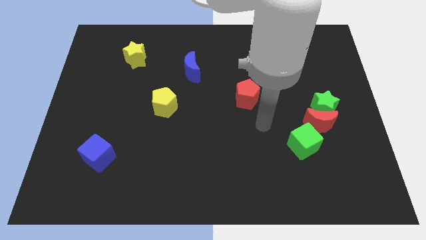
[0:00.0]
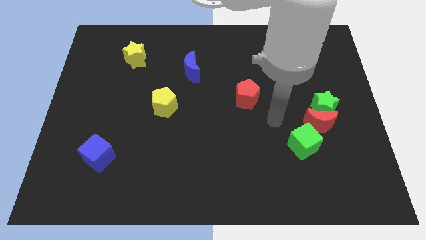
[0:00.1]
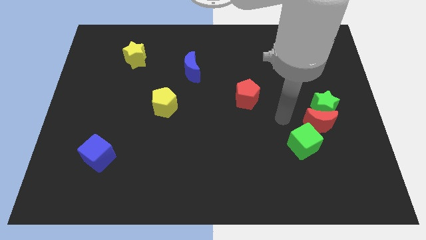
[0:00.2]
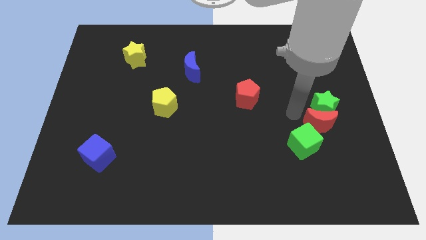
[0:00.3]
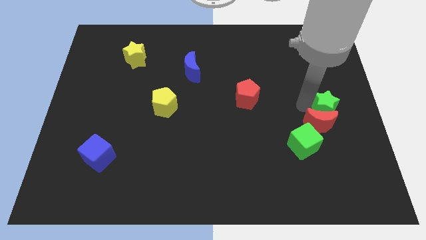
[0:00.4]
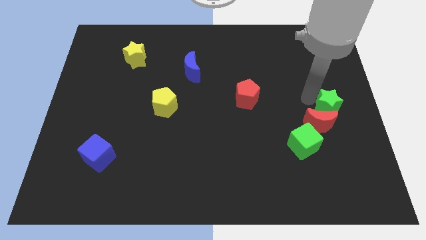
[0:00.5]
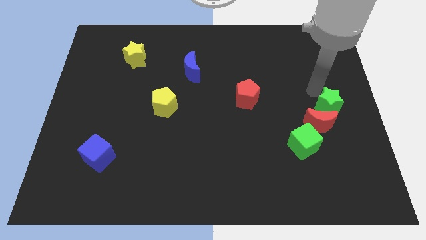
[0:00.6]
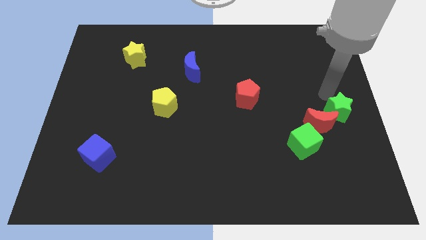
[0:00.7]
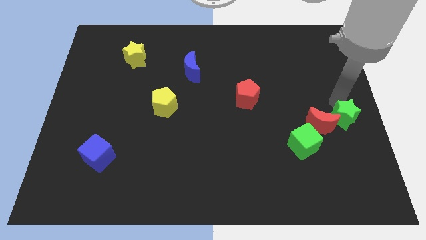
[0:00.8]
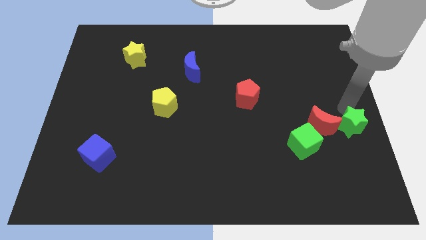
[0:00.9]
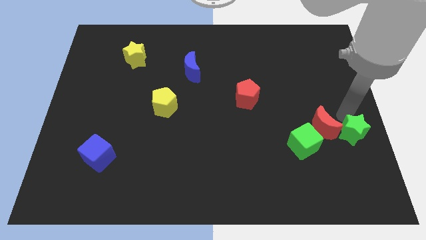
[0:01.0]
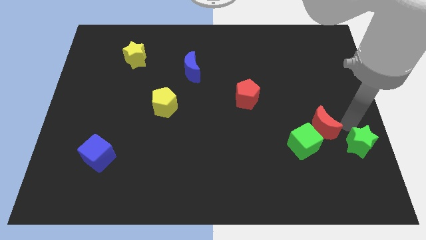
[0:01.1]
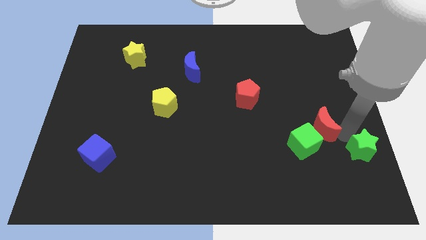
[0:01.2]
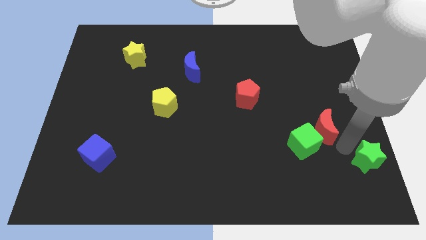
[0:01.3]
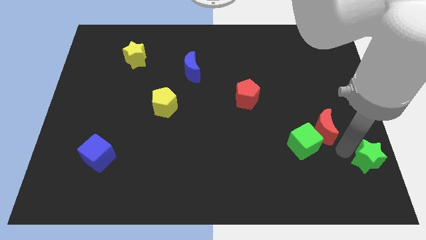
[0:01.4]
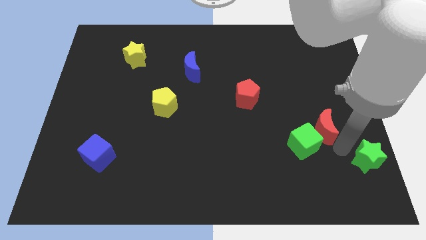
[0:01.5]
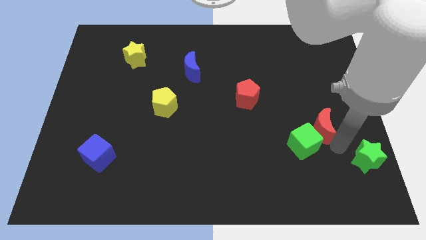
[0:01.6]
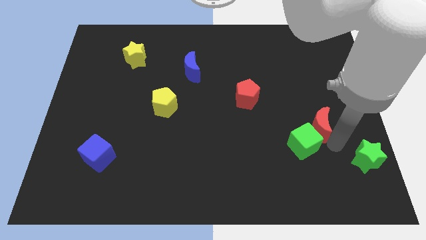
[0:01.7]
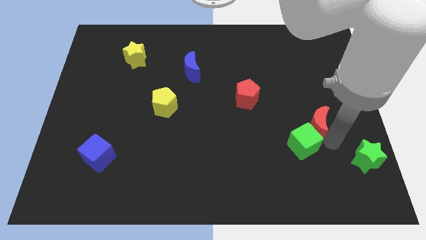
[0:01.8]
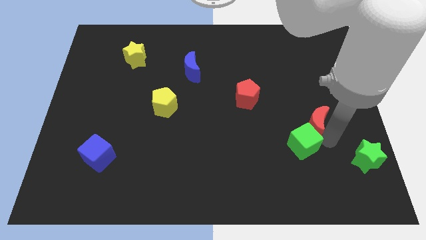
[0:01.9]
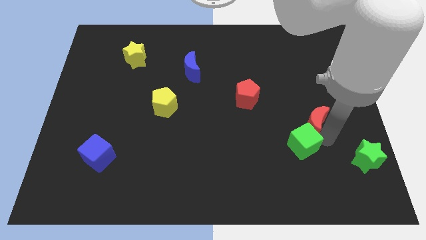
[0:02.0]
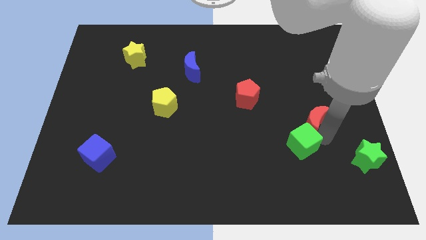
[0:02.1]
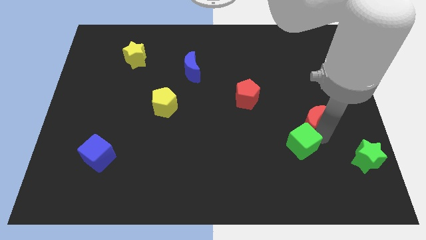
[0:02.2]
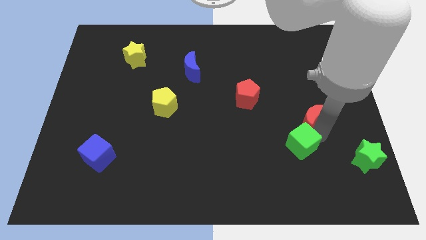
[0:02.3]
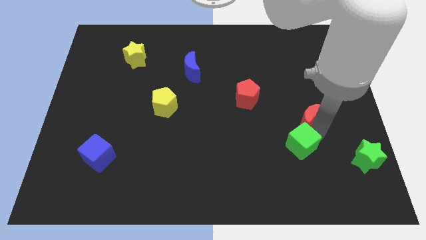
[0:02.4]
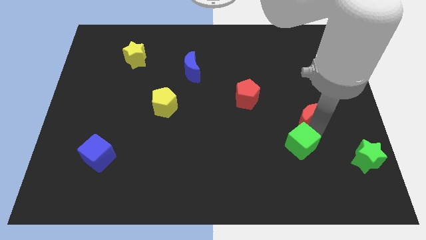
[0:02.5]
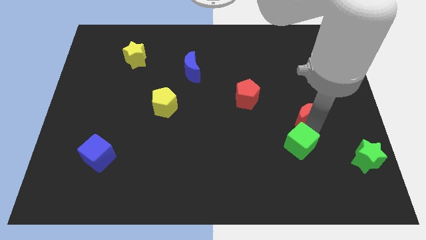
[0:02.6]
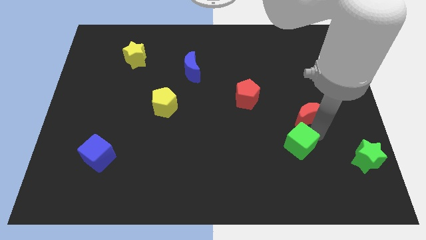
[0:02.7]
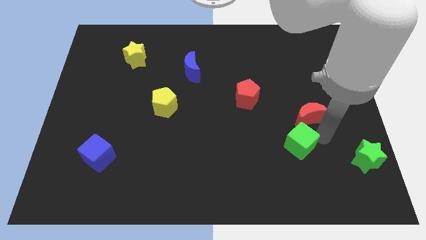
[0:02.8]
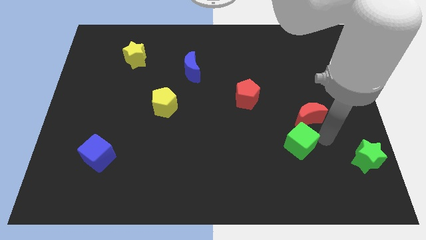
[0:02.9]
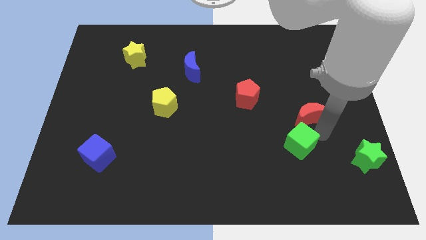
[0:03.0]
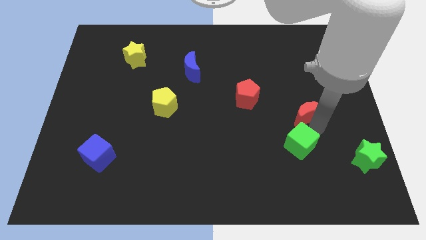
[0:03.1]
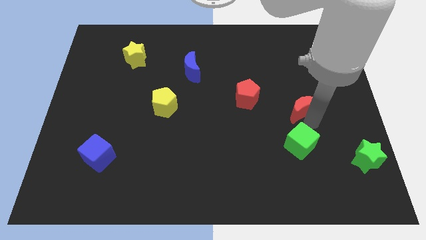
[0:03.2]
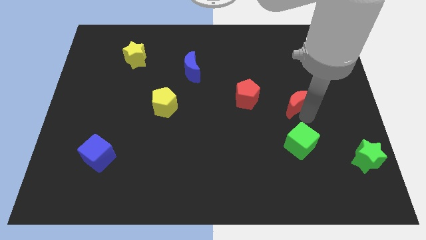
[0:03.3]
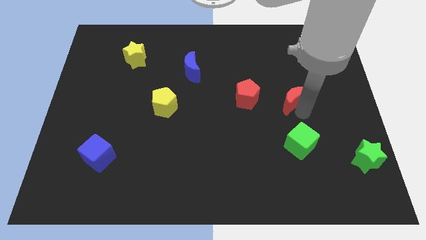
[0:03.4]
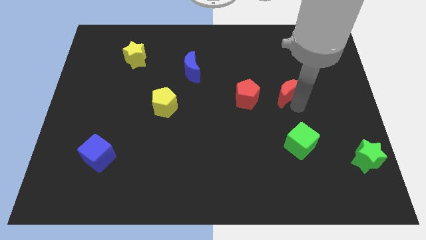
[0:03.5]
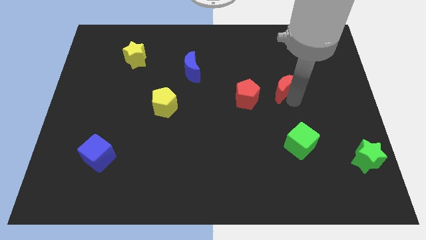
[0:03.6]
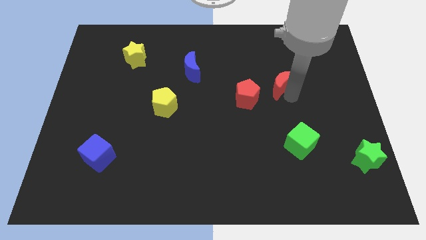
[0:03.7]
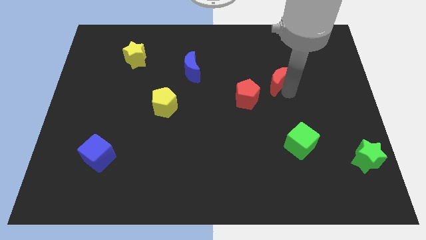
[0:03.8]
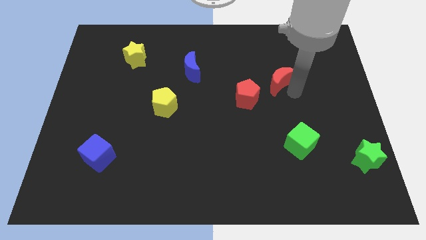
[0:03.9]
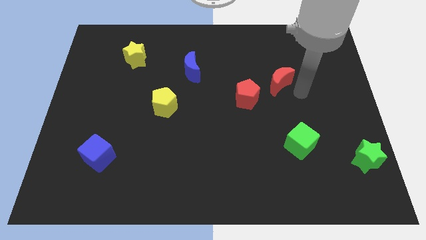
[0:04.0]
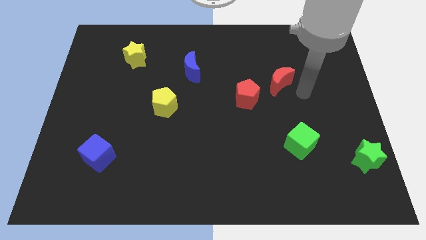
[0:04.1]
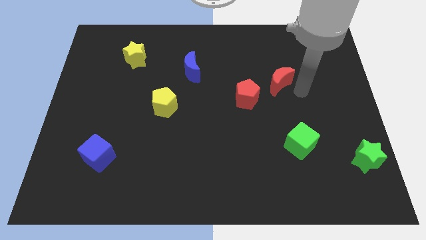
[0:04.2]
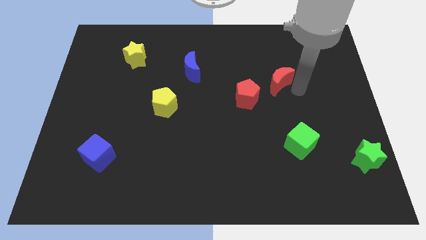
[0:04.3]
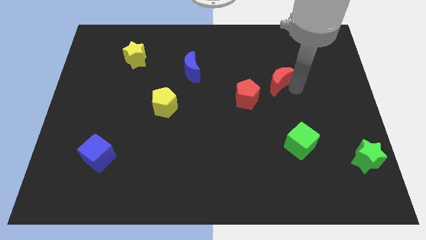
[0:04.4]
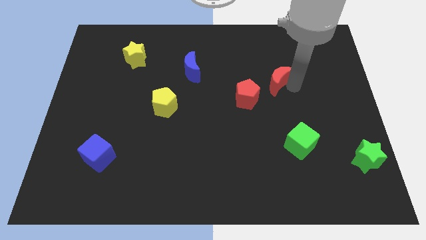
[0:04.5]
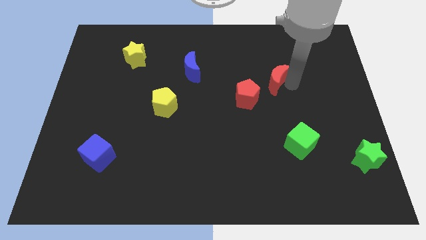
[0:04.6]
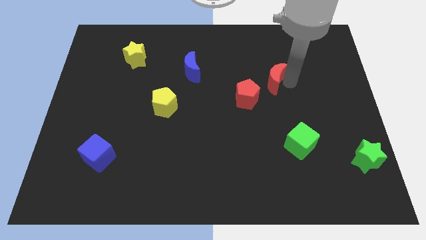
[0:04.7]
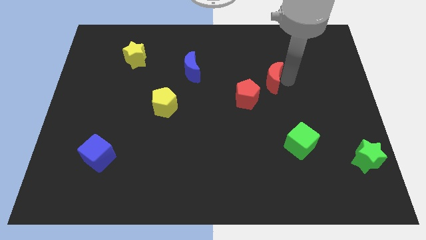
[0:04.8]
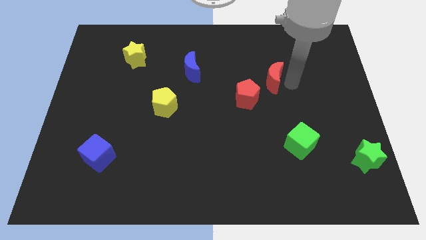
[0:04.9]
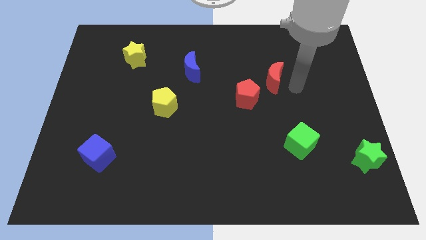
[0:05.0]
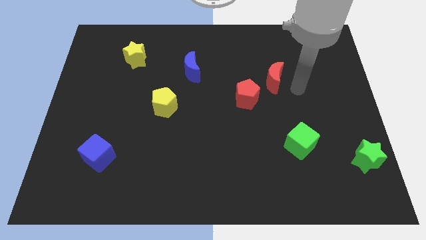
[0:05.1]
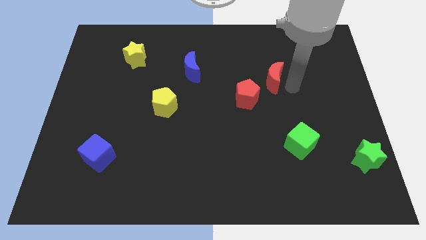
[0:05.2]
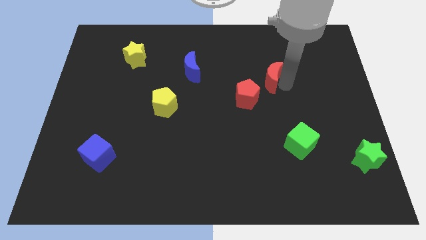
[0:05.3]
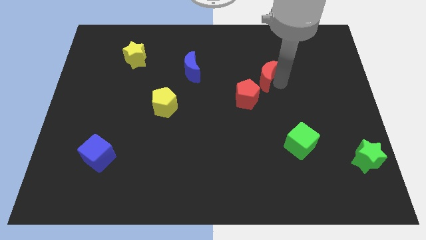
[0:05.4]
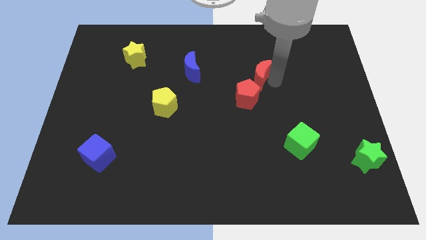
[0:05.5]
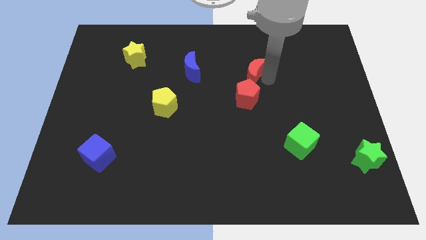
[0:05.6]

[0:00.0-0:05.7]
put the red moon to the right of the blue moon

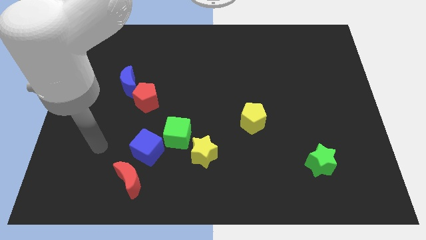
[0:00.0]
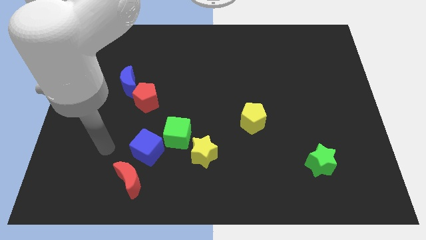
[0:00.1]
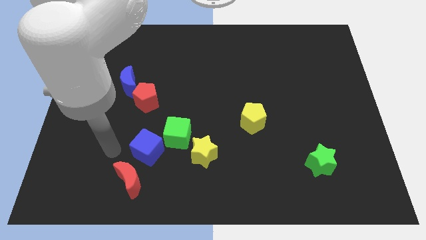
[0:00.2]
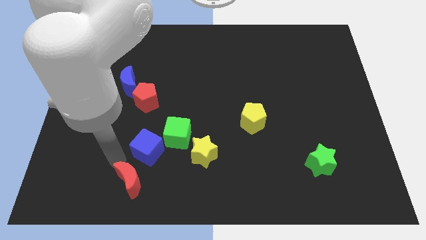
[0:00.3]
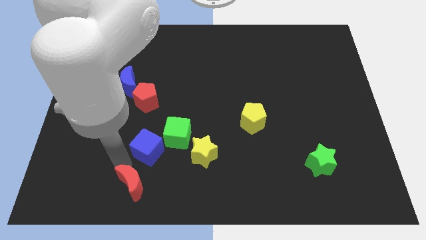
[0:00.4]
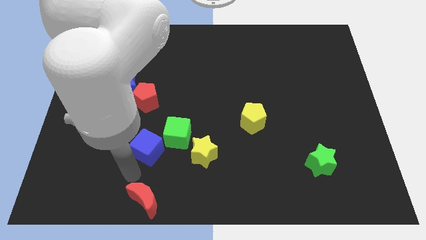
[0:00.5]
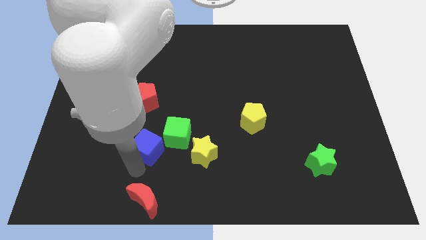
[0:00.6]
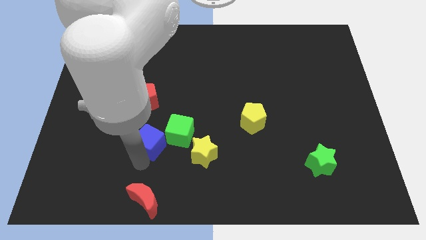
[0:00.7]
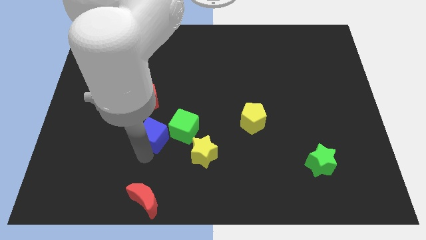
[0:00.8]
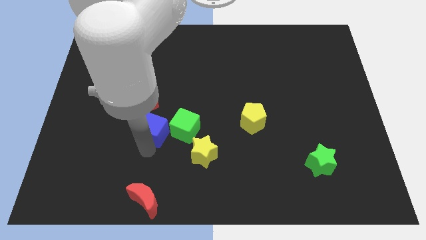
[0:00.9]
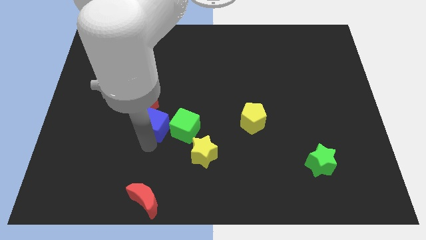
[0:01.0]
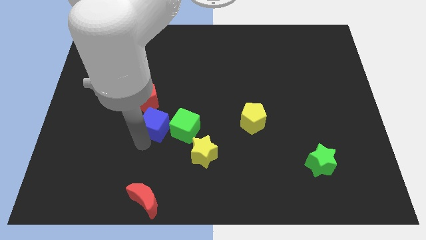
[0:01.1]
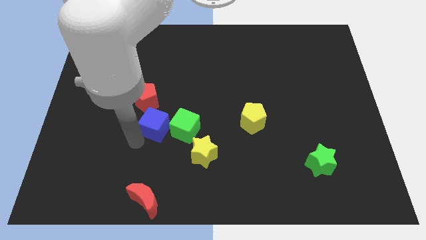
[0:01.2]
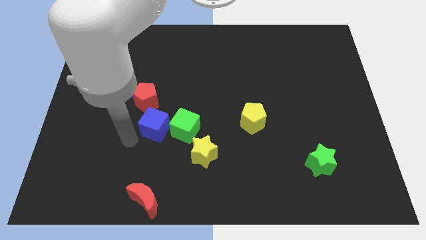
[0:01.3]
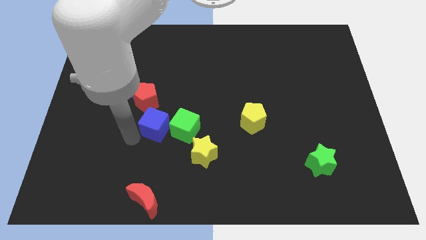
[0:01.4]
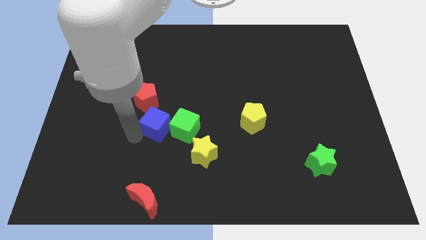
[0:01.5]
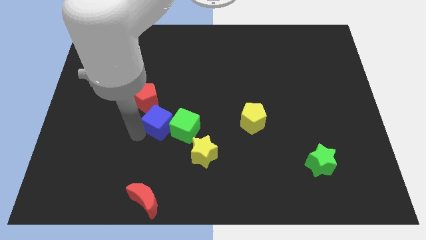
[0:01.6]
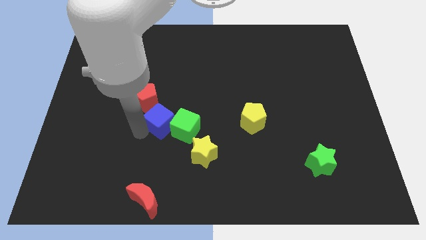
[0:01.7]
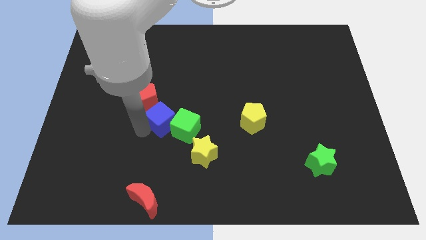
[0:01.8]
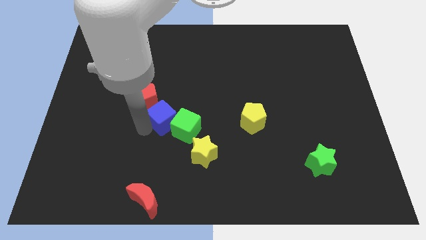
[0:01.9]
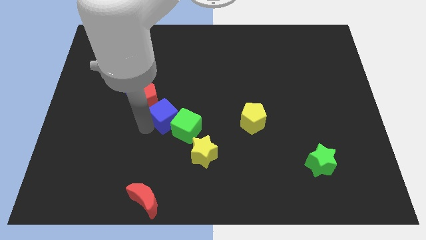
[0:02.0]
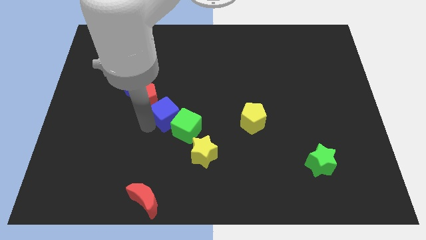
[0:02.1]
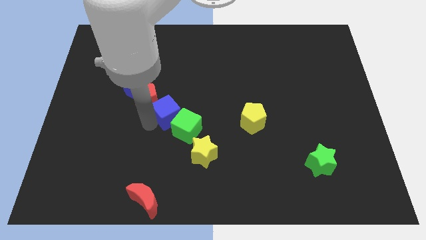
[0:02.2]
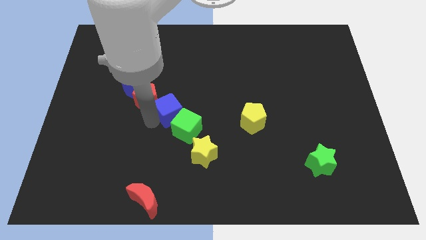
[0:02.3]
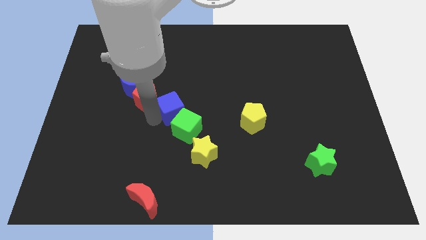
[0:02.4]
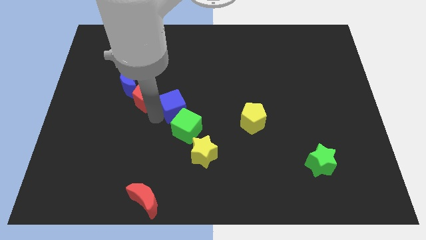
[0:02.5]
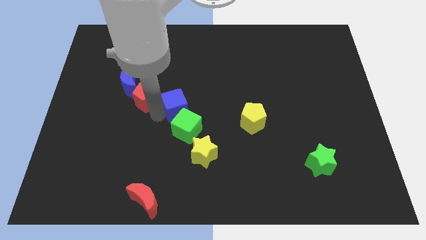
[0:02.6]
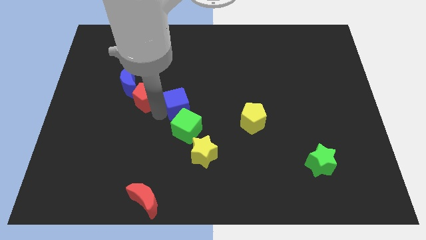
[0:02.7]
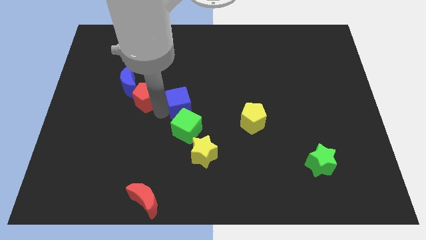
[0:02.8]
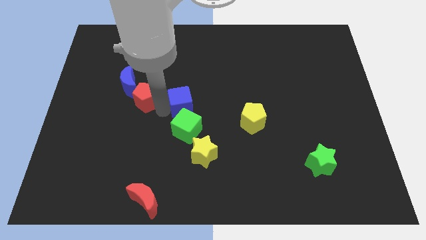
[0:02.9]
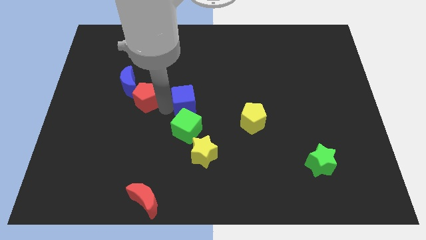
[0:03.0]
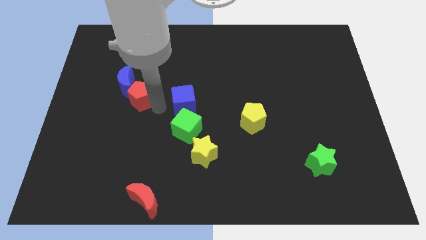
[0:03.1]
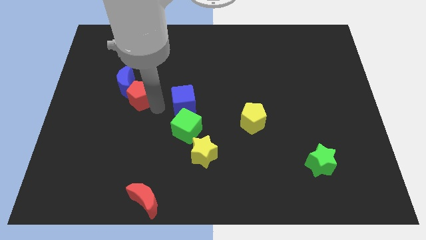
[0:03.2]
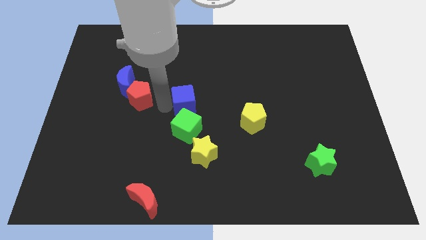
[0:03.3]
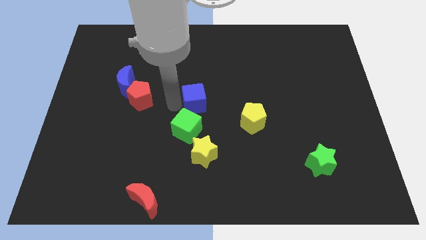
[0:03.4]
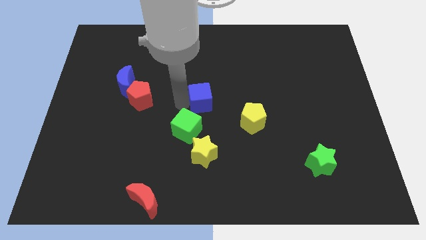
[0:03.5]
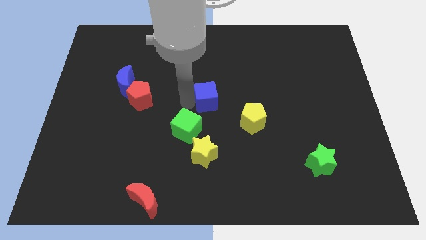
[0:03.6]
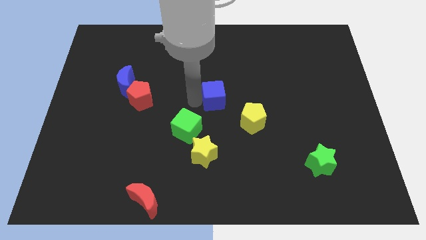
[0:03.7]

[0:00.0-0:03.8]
slide the blue cube diagonally up and to the left of the yellow pentagon
